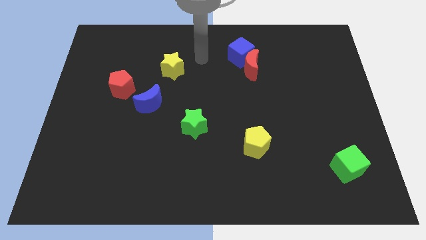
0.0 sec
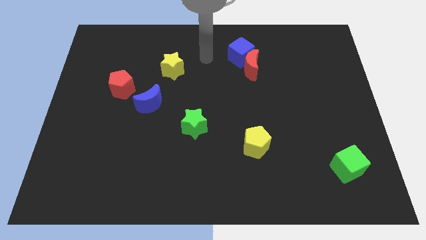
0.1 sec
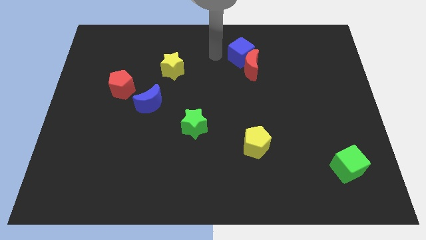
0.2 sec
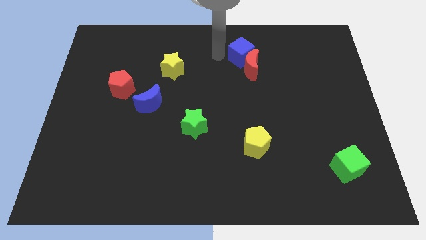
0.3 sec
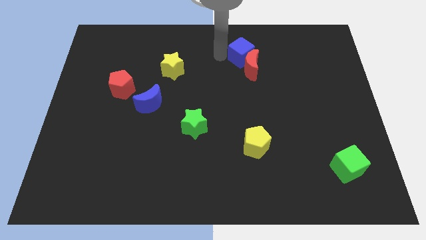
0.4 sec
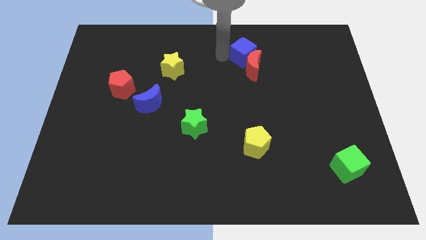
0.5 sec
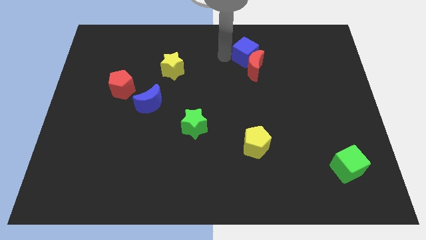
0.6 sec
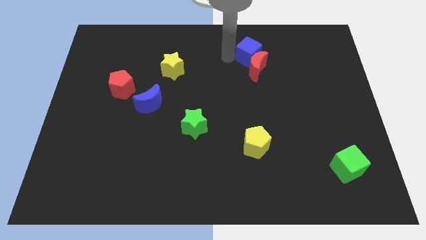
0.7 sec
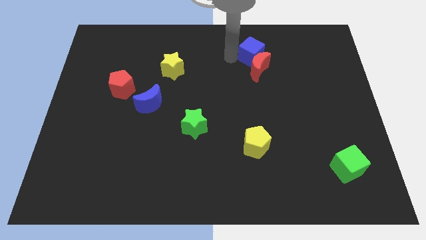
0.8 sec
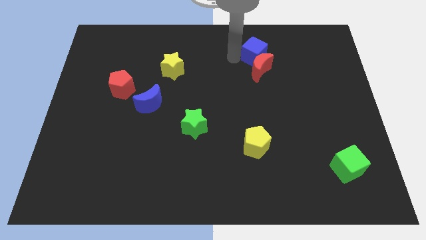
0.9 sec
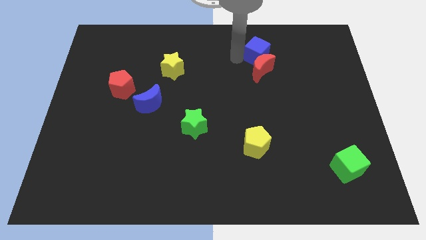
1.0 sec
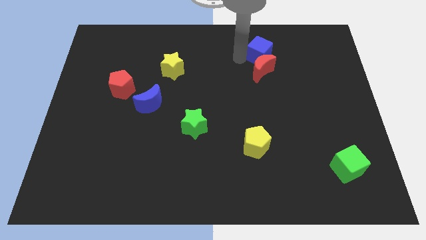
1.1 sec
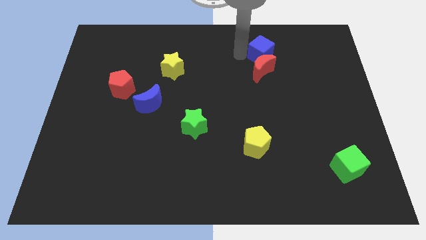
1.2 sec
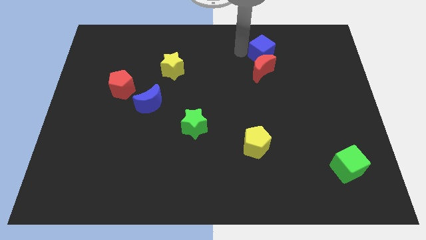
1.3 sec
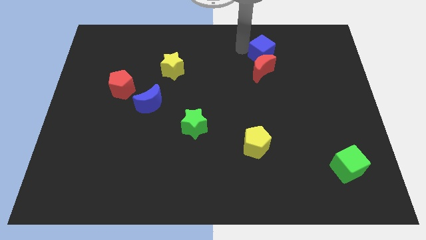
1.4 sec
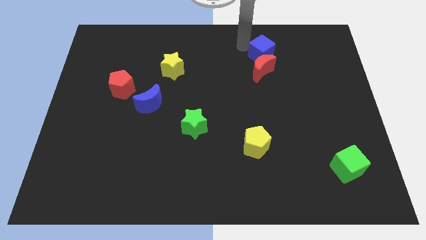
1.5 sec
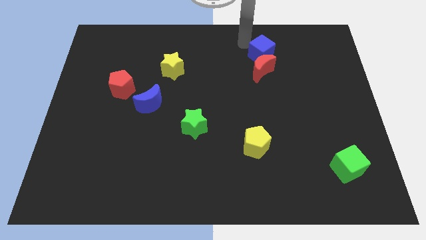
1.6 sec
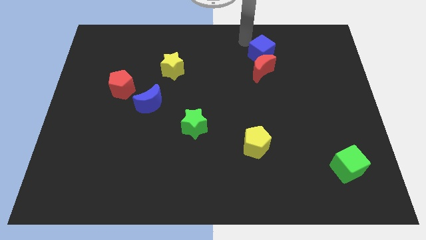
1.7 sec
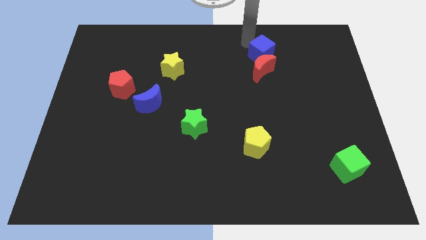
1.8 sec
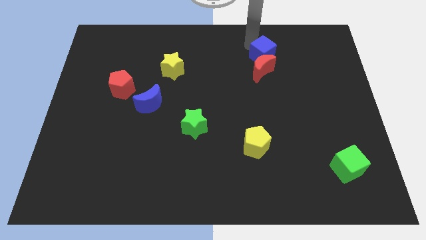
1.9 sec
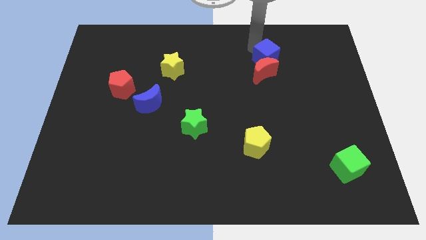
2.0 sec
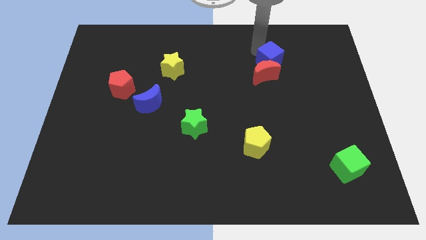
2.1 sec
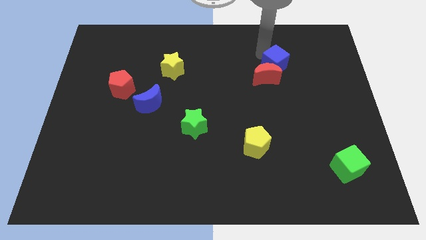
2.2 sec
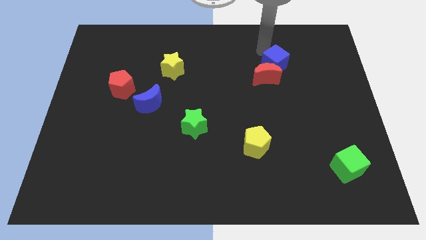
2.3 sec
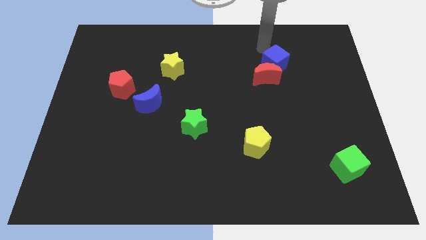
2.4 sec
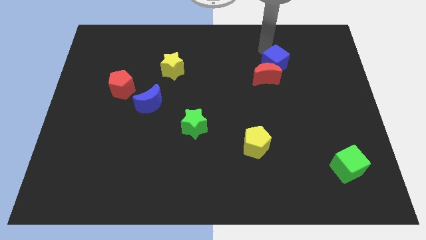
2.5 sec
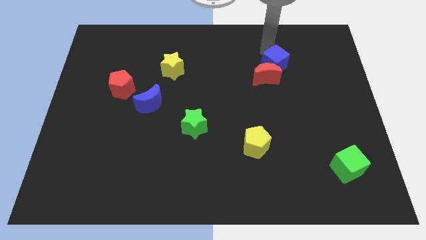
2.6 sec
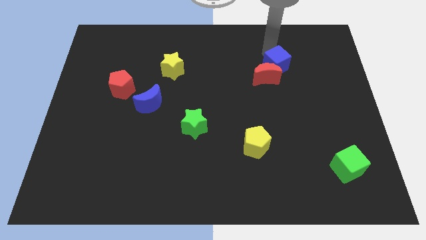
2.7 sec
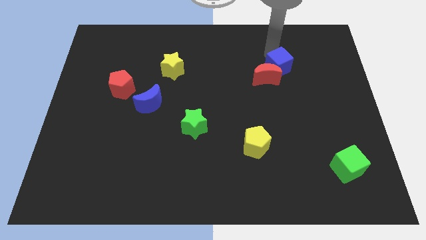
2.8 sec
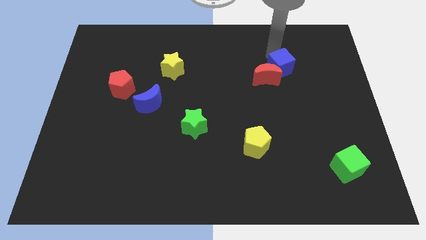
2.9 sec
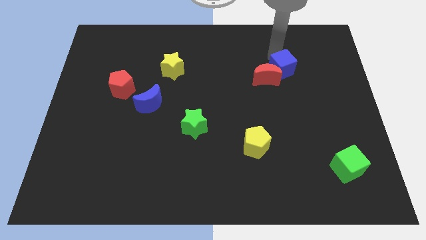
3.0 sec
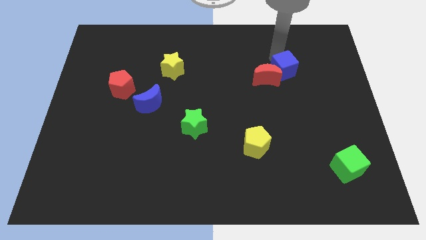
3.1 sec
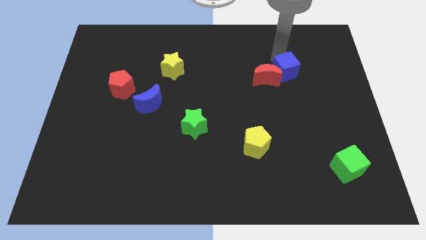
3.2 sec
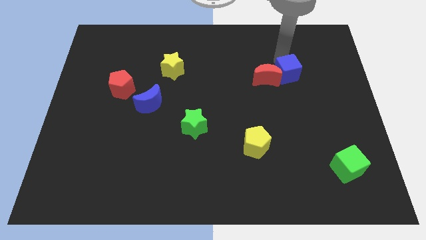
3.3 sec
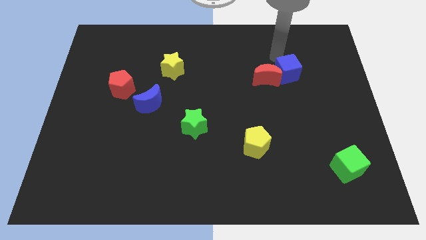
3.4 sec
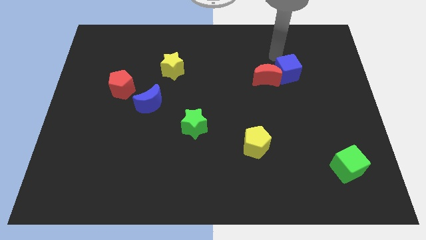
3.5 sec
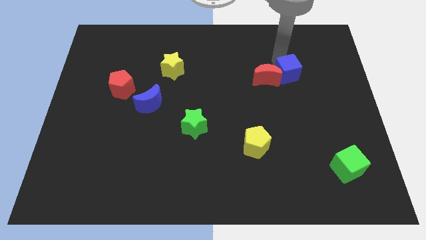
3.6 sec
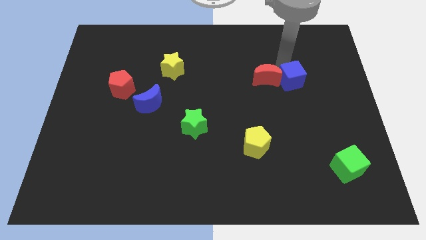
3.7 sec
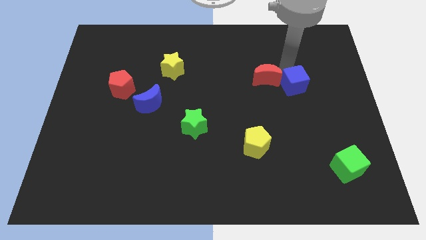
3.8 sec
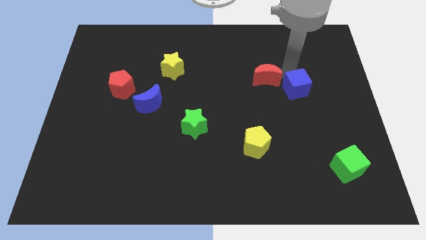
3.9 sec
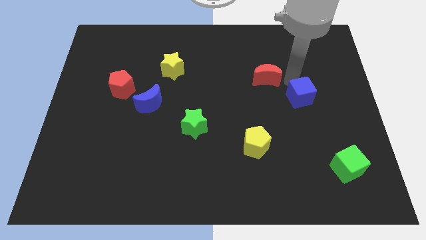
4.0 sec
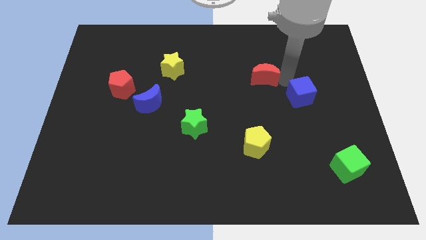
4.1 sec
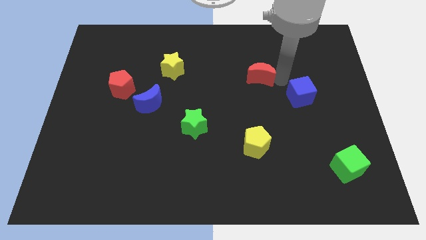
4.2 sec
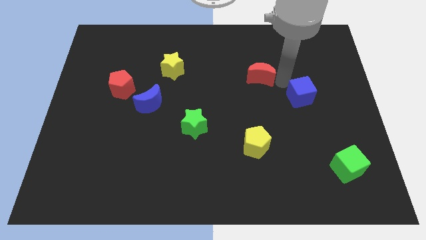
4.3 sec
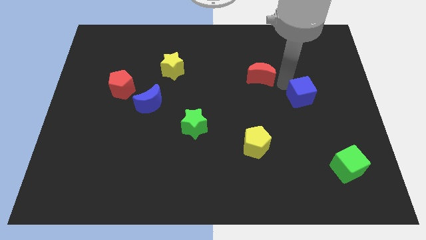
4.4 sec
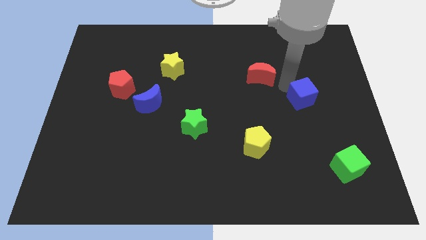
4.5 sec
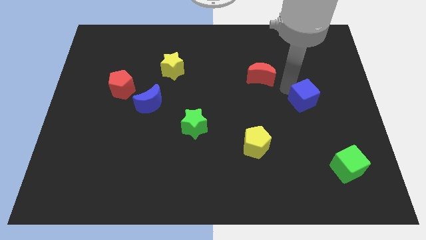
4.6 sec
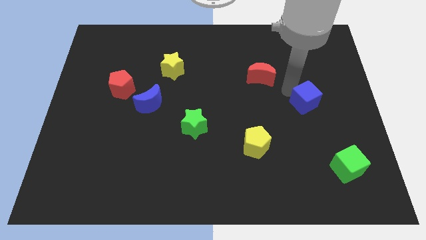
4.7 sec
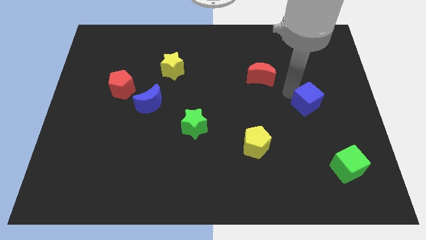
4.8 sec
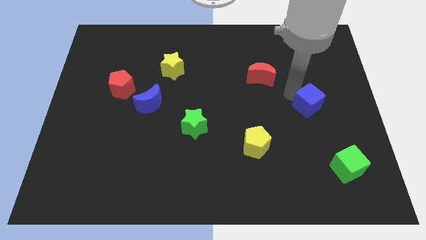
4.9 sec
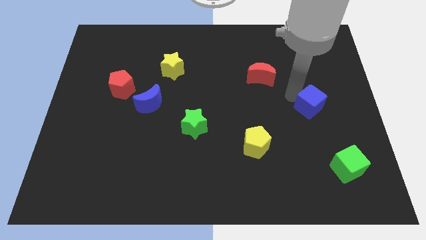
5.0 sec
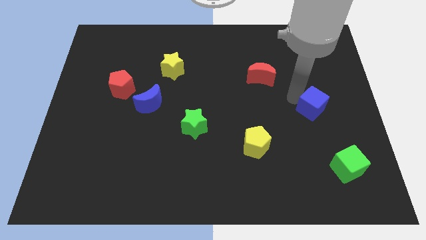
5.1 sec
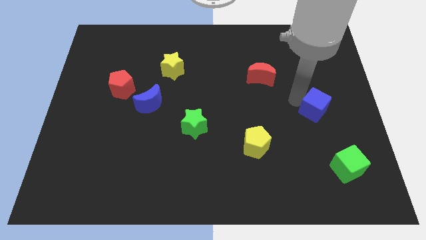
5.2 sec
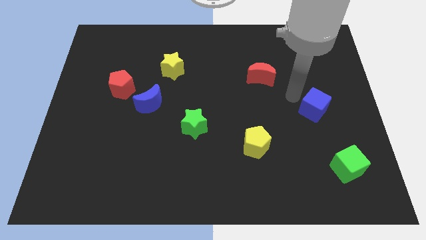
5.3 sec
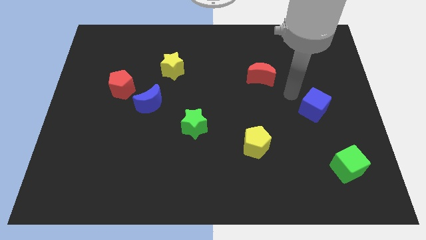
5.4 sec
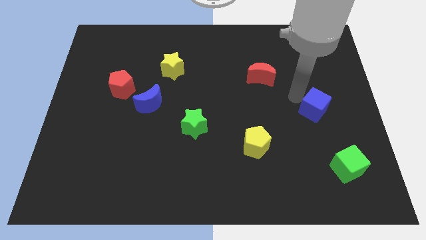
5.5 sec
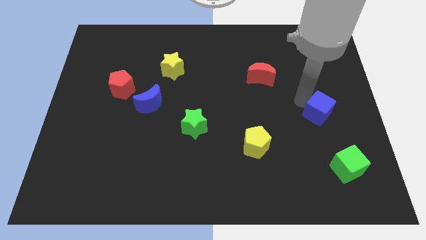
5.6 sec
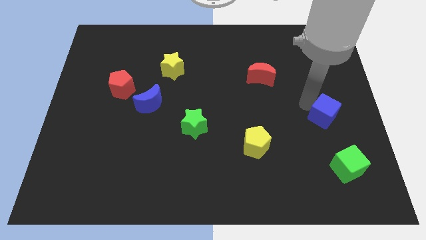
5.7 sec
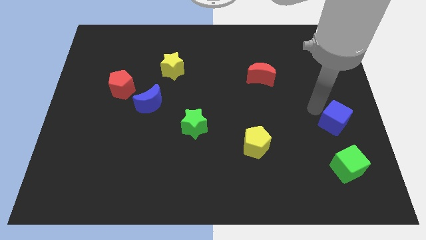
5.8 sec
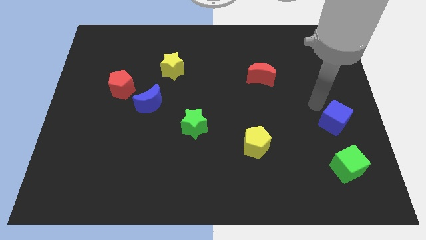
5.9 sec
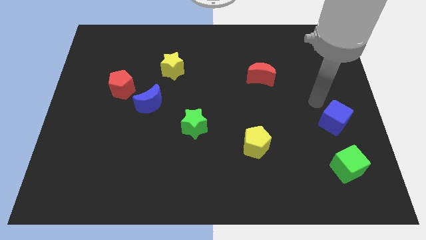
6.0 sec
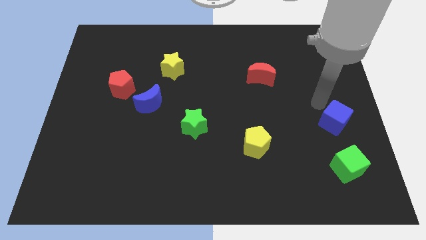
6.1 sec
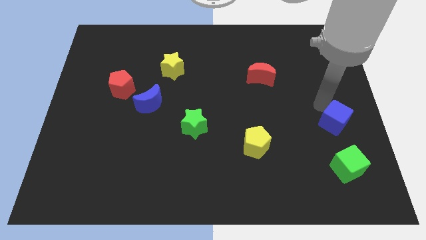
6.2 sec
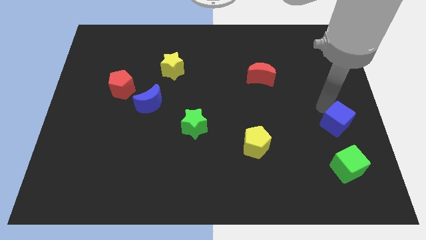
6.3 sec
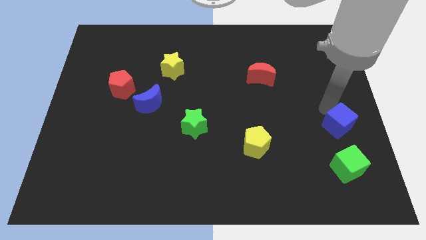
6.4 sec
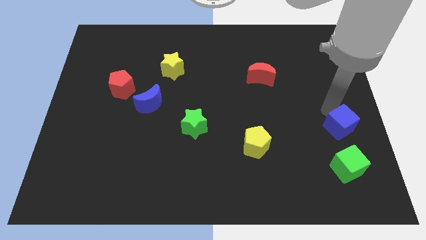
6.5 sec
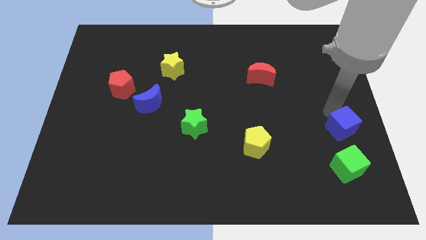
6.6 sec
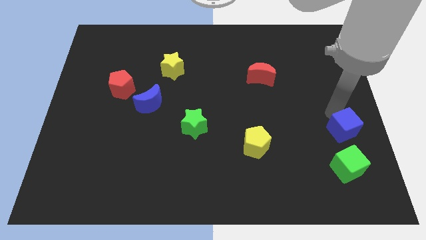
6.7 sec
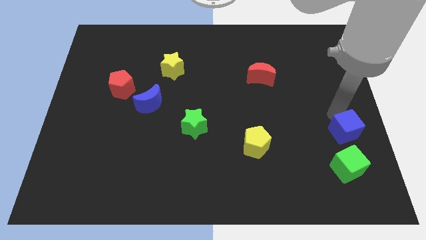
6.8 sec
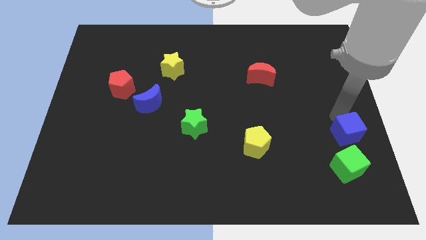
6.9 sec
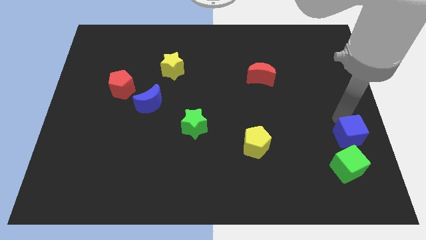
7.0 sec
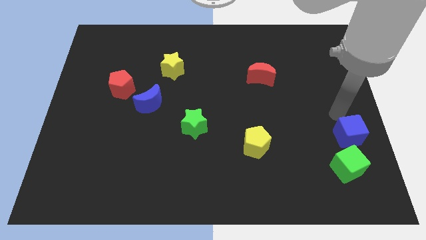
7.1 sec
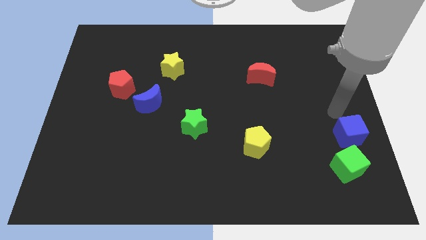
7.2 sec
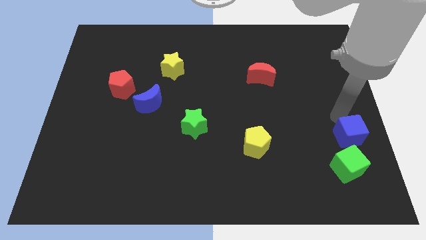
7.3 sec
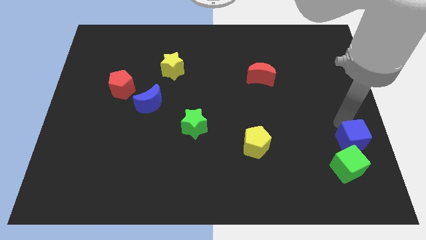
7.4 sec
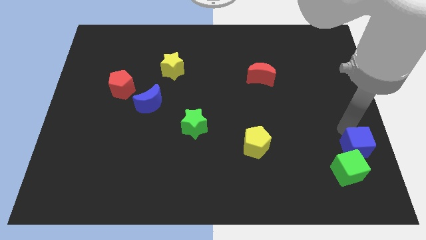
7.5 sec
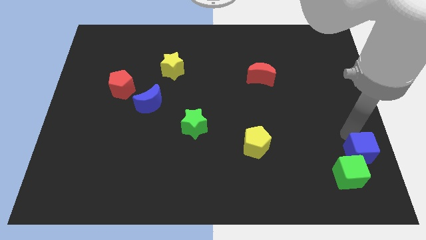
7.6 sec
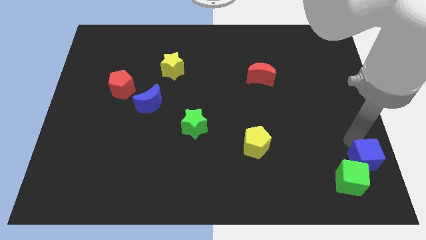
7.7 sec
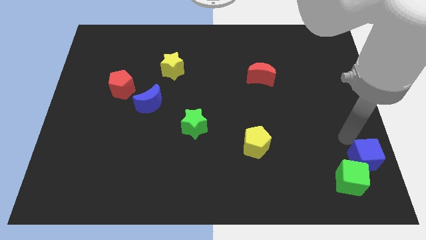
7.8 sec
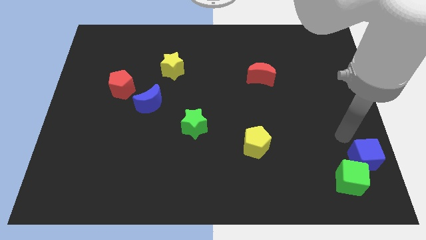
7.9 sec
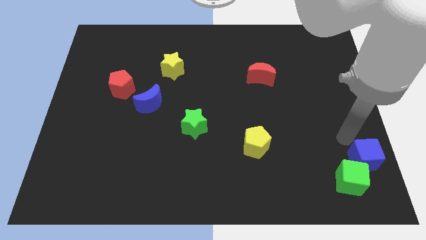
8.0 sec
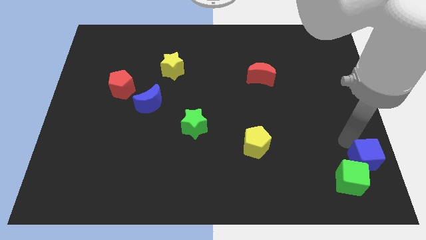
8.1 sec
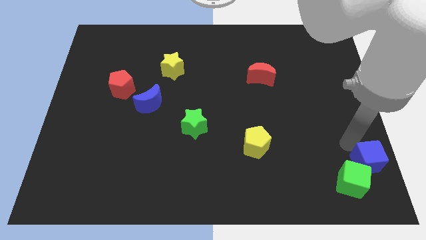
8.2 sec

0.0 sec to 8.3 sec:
slide the blue cube to the bottom right of the board
